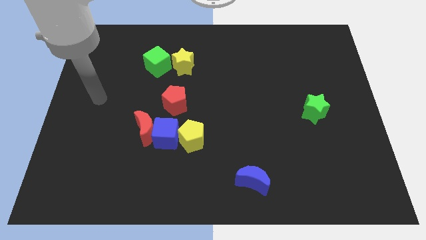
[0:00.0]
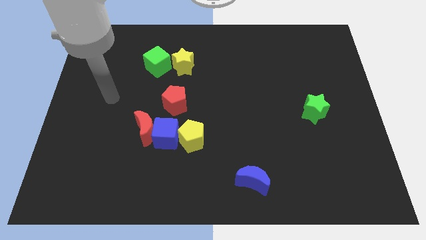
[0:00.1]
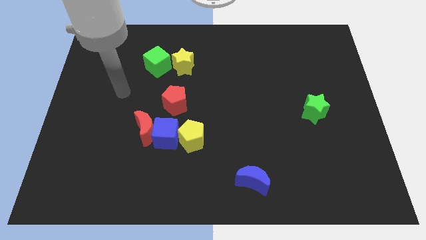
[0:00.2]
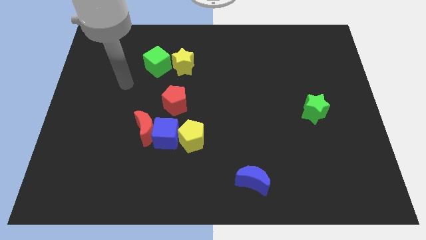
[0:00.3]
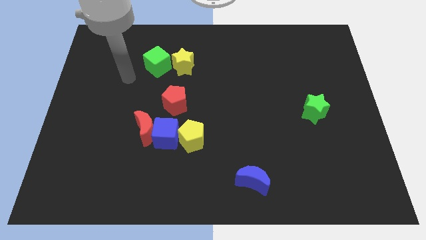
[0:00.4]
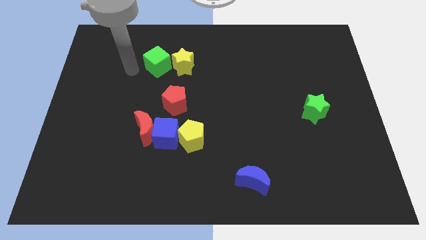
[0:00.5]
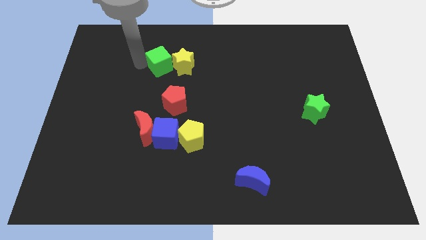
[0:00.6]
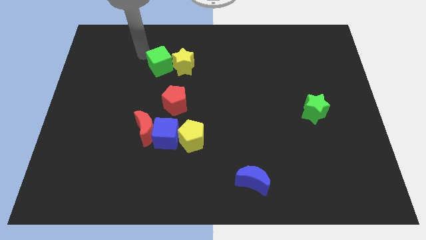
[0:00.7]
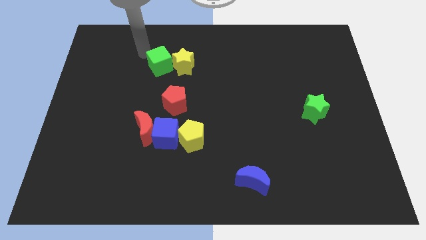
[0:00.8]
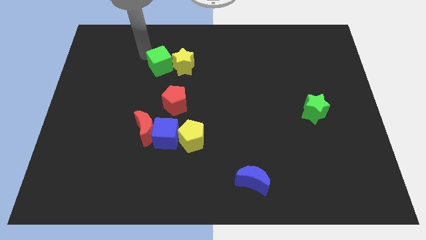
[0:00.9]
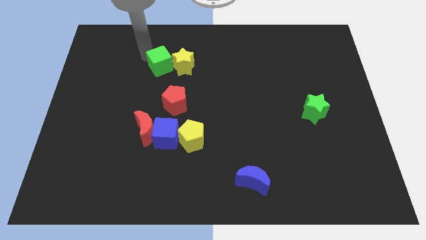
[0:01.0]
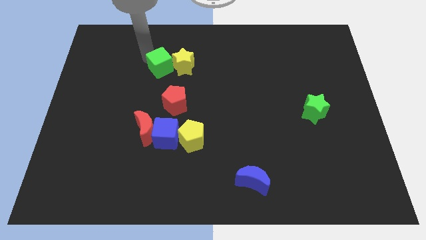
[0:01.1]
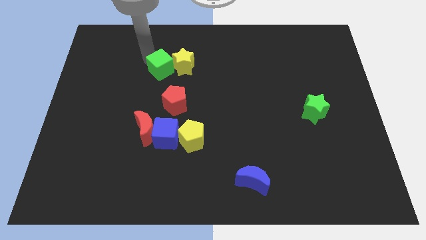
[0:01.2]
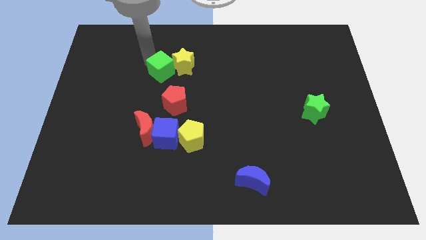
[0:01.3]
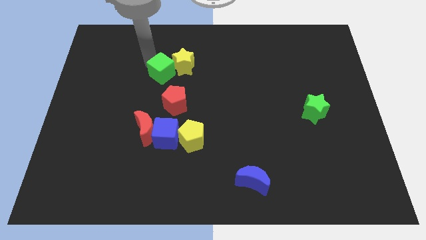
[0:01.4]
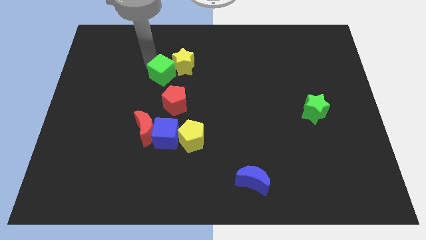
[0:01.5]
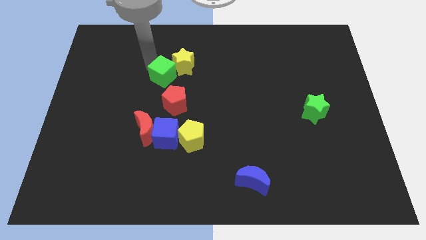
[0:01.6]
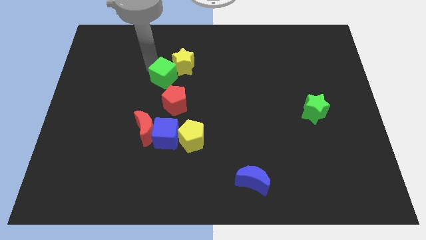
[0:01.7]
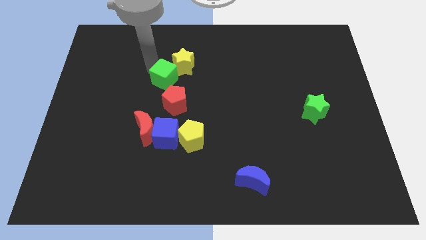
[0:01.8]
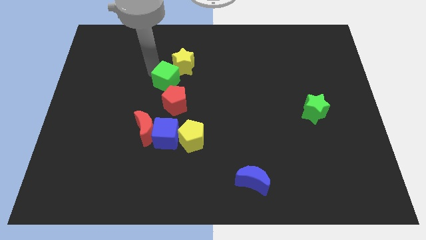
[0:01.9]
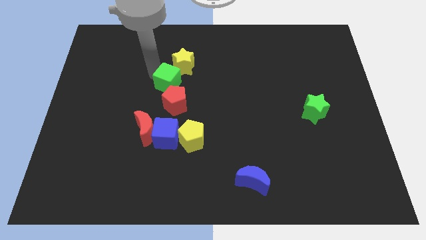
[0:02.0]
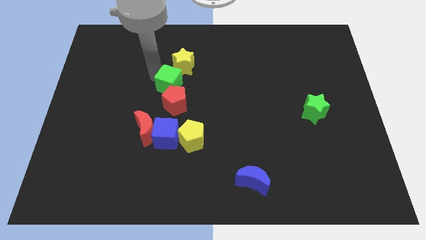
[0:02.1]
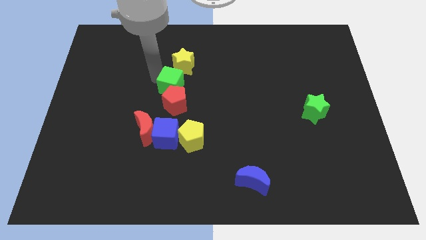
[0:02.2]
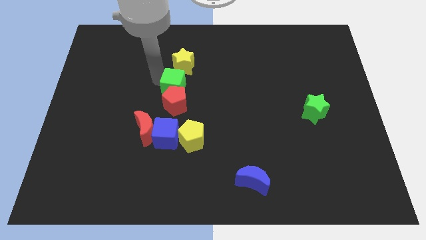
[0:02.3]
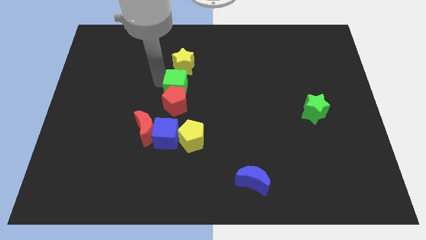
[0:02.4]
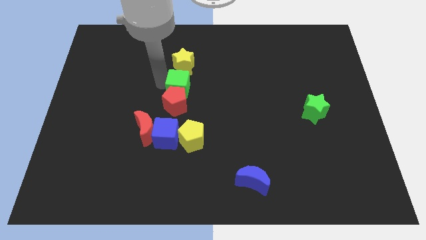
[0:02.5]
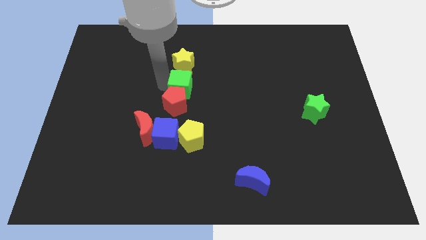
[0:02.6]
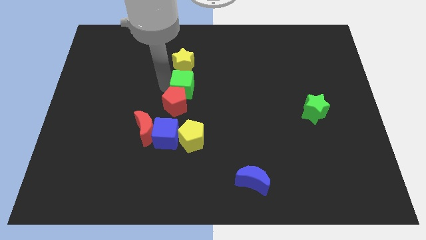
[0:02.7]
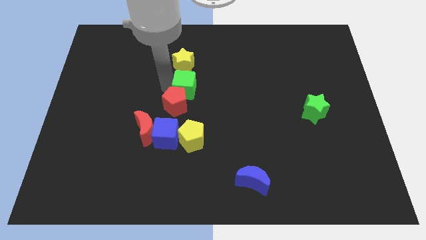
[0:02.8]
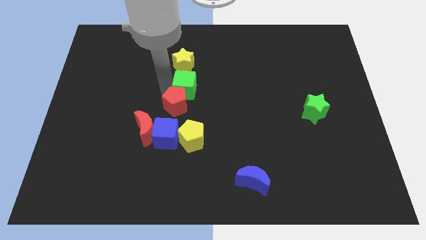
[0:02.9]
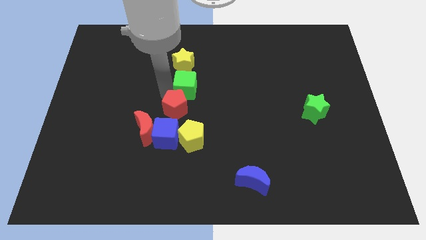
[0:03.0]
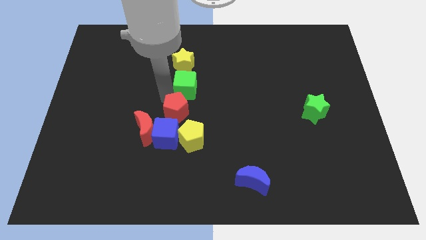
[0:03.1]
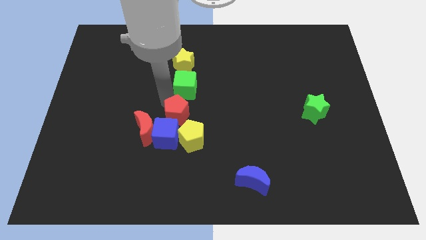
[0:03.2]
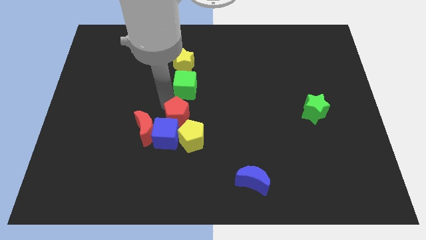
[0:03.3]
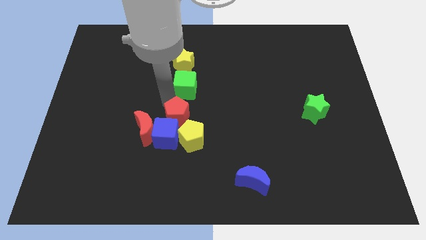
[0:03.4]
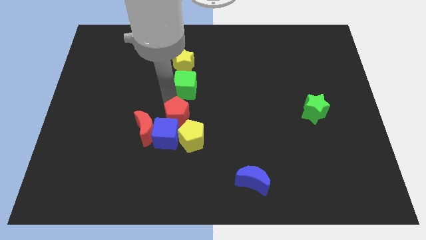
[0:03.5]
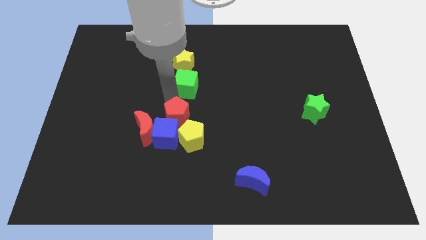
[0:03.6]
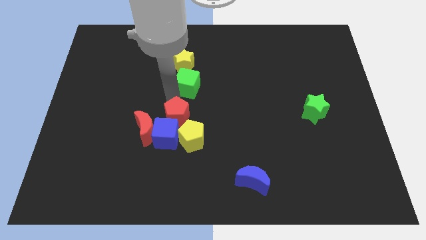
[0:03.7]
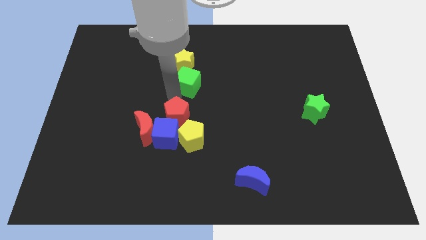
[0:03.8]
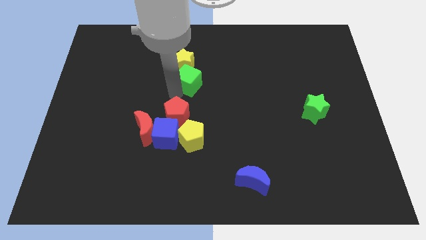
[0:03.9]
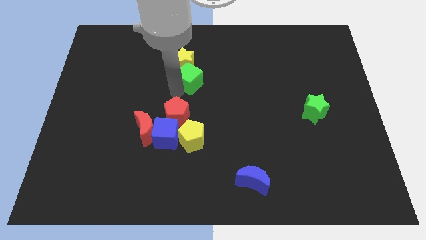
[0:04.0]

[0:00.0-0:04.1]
move the green cube somewhat to the right

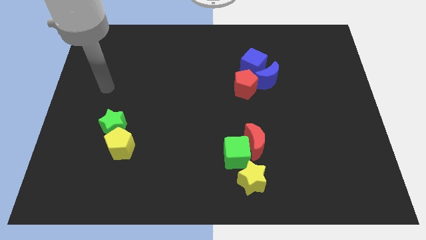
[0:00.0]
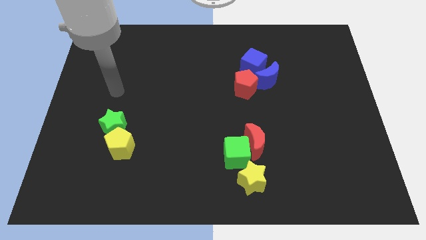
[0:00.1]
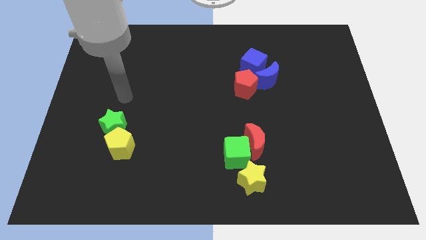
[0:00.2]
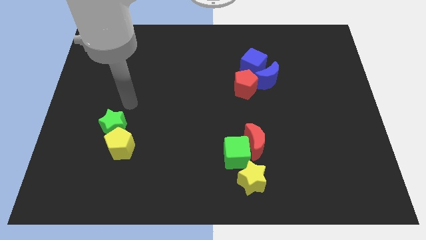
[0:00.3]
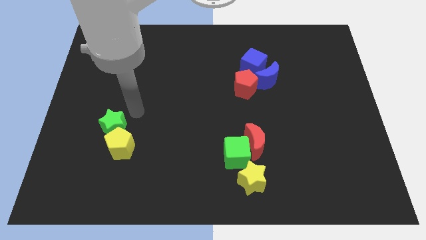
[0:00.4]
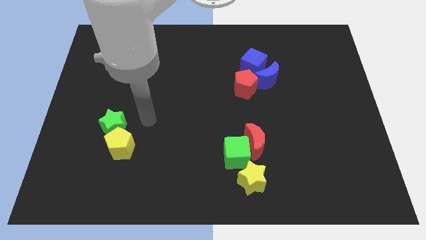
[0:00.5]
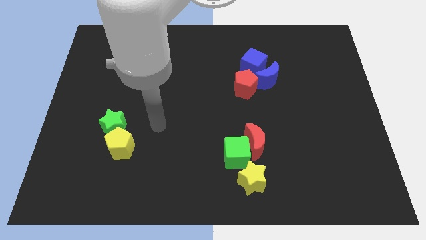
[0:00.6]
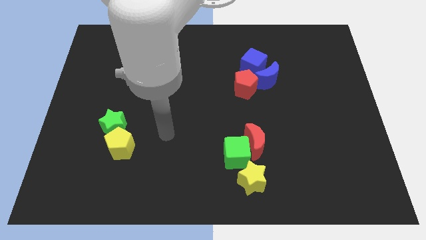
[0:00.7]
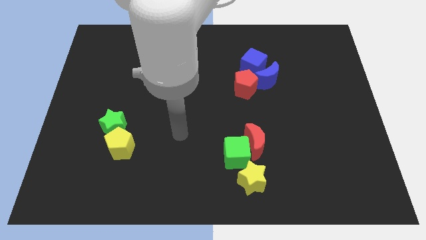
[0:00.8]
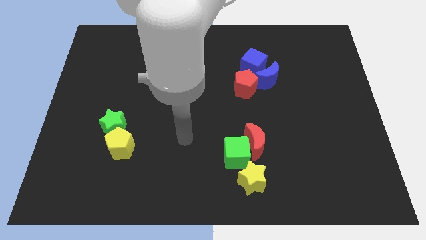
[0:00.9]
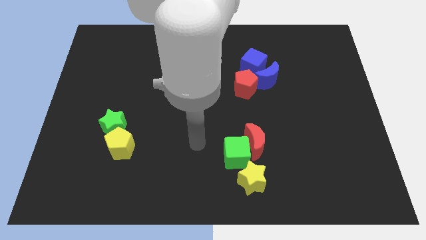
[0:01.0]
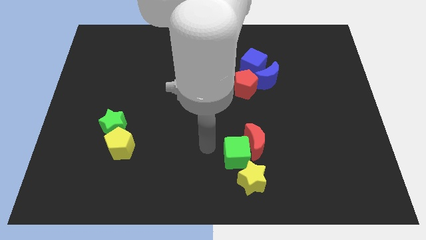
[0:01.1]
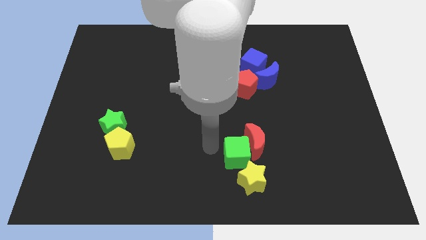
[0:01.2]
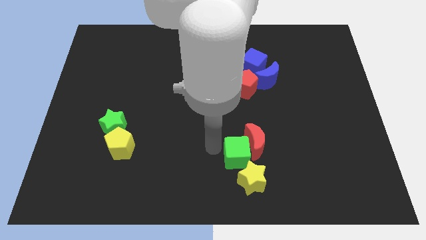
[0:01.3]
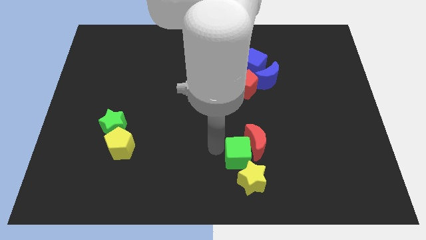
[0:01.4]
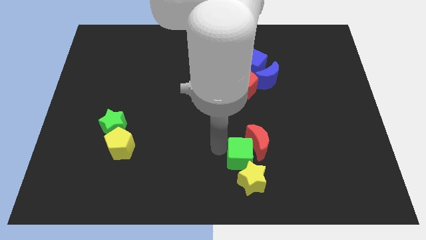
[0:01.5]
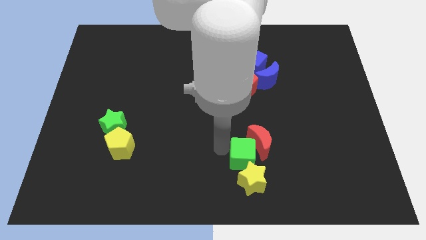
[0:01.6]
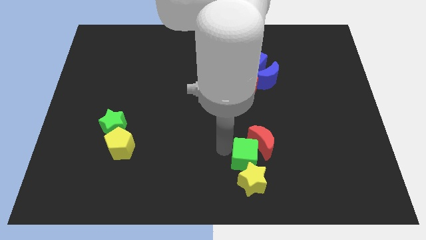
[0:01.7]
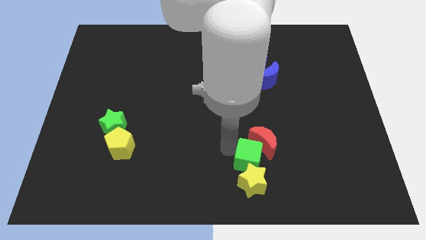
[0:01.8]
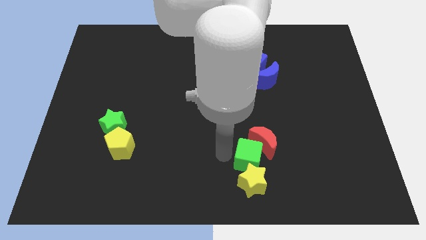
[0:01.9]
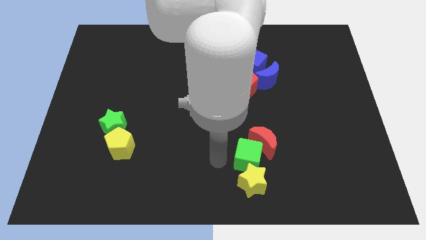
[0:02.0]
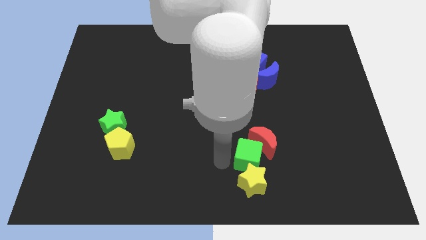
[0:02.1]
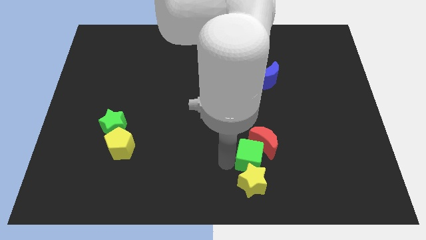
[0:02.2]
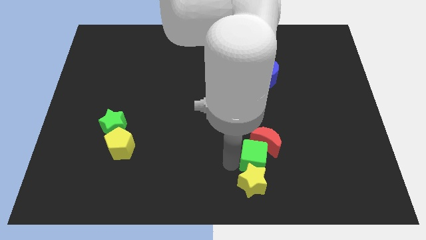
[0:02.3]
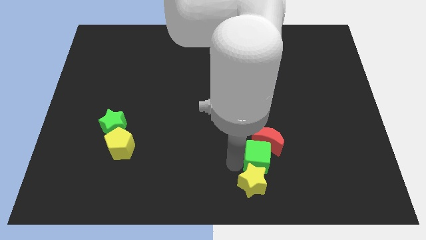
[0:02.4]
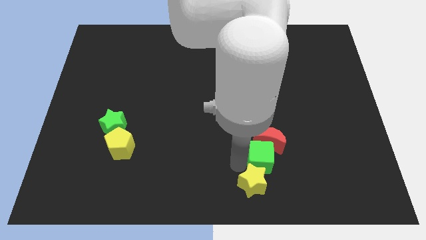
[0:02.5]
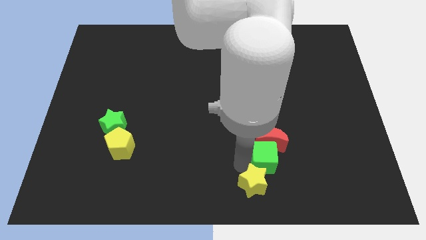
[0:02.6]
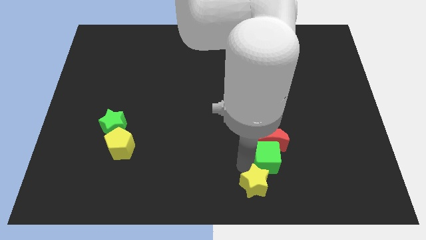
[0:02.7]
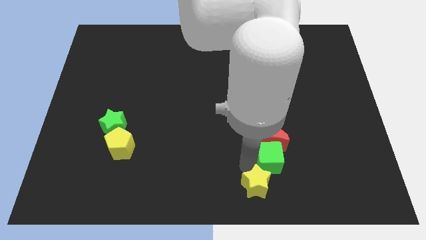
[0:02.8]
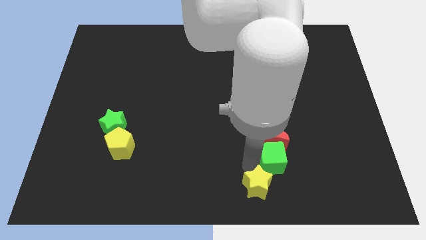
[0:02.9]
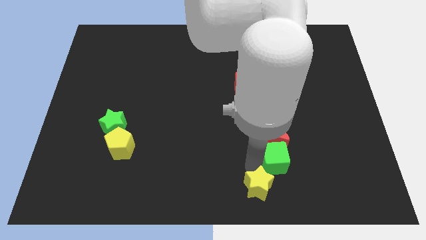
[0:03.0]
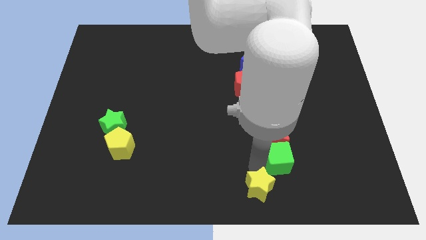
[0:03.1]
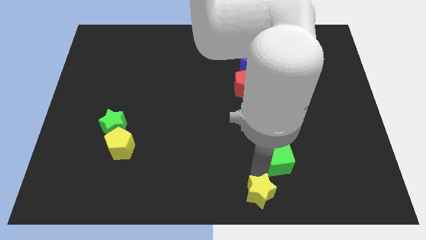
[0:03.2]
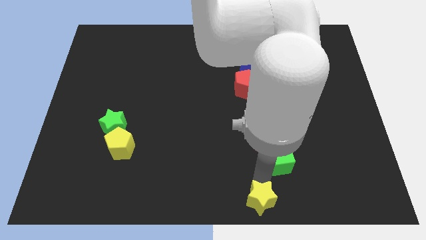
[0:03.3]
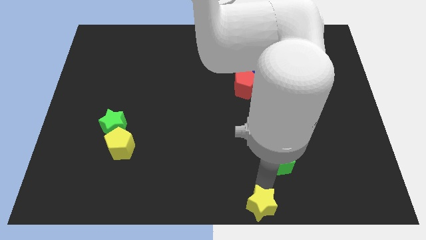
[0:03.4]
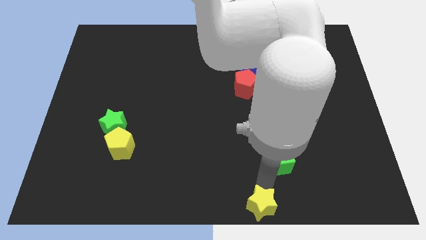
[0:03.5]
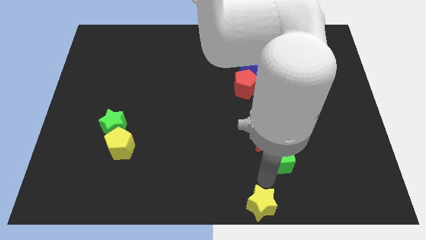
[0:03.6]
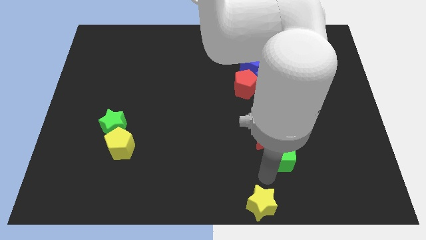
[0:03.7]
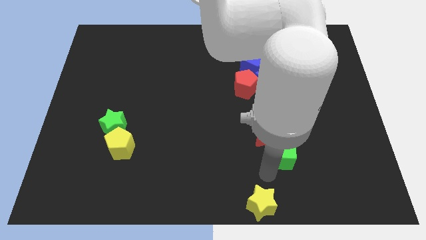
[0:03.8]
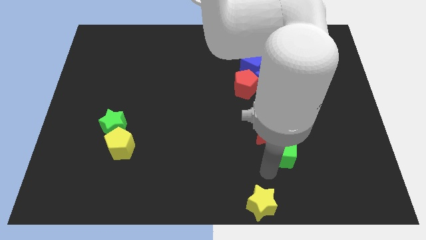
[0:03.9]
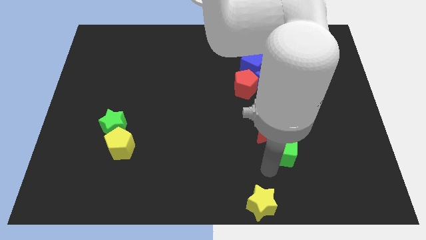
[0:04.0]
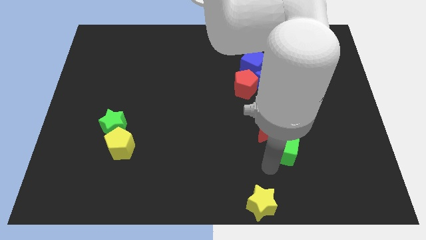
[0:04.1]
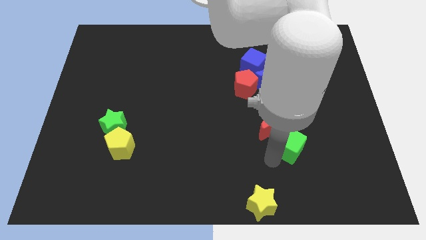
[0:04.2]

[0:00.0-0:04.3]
slightly move the green cube up and then to the right
